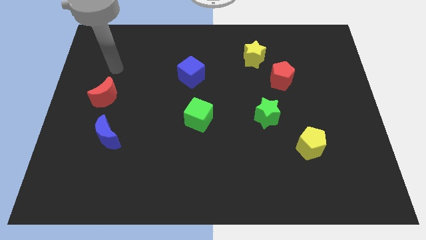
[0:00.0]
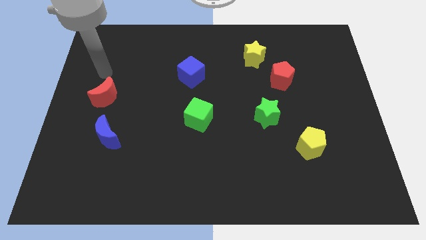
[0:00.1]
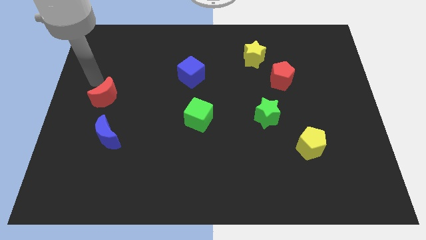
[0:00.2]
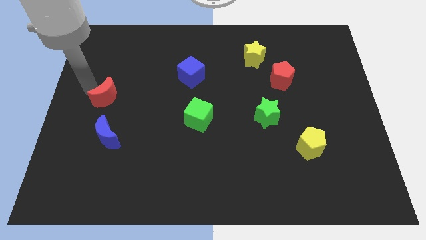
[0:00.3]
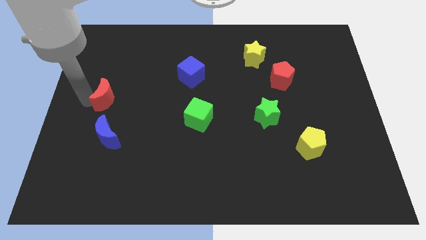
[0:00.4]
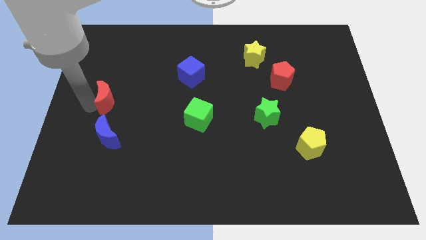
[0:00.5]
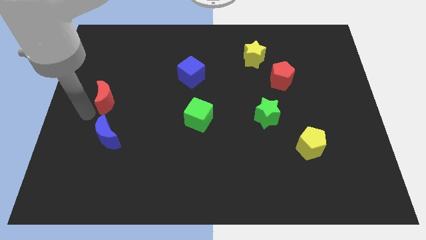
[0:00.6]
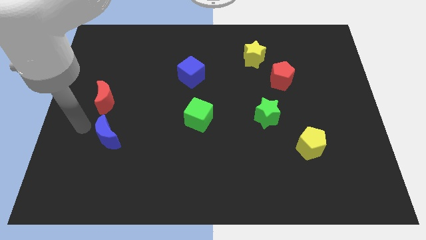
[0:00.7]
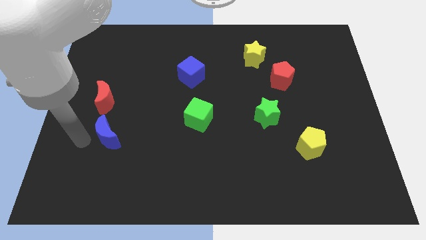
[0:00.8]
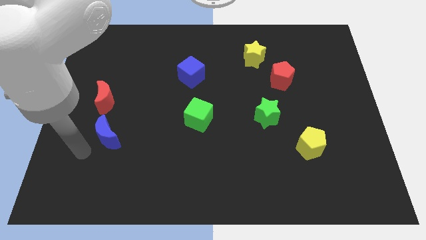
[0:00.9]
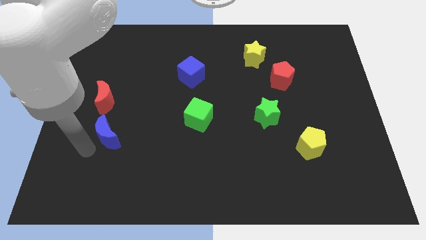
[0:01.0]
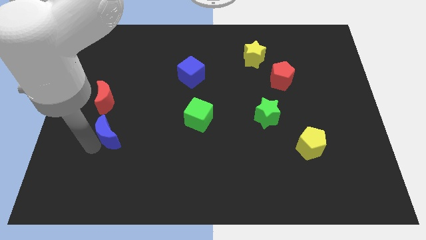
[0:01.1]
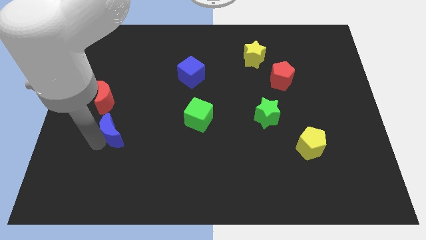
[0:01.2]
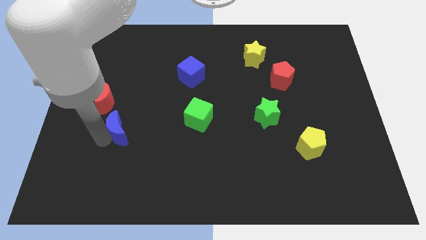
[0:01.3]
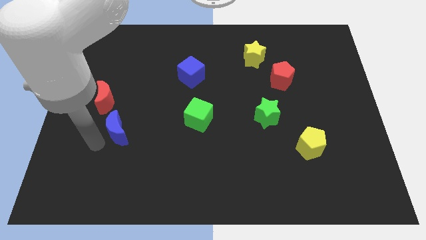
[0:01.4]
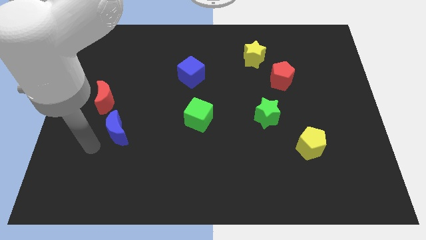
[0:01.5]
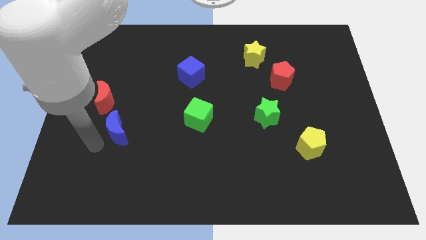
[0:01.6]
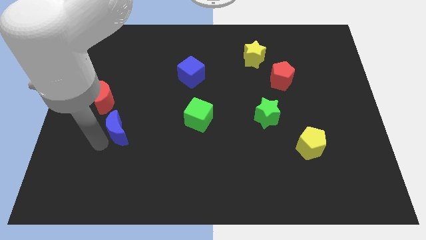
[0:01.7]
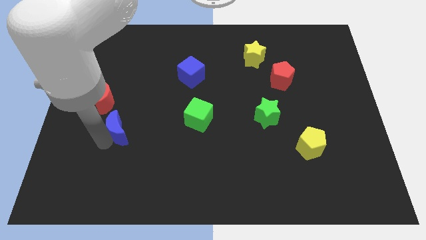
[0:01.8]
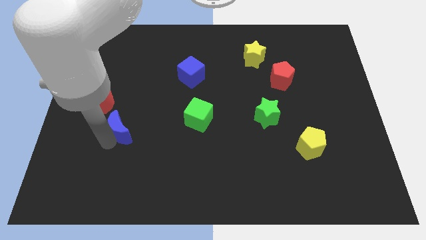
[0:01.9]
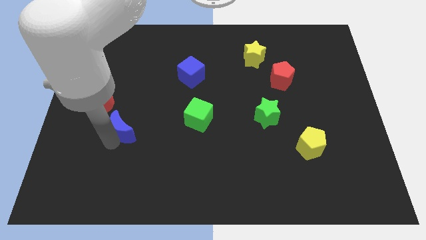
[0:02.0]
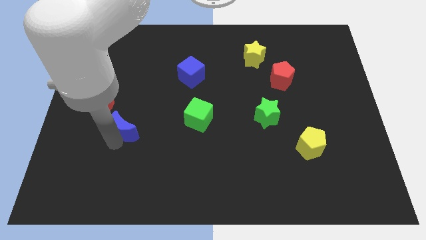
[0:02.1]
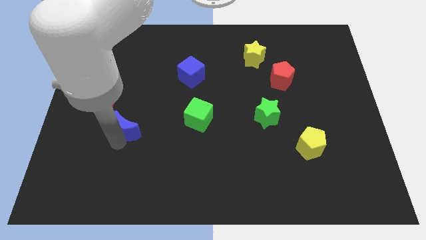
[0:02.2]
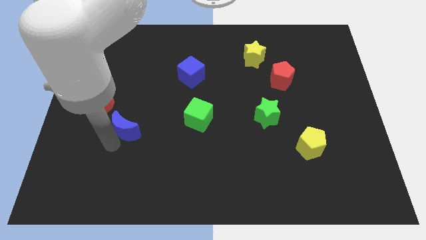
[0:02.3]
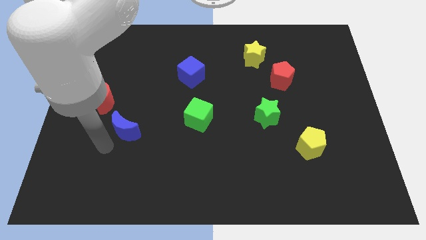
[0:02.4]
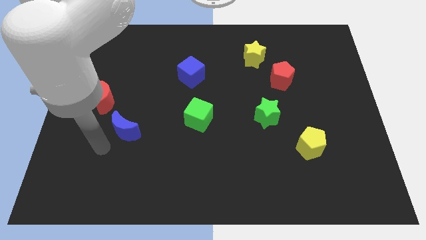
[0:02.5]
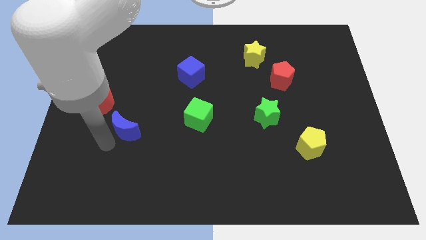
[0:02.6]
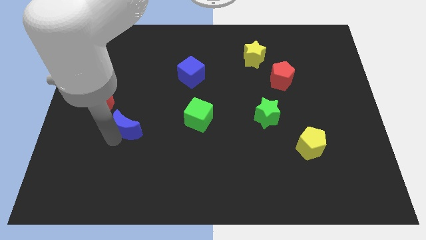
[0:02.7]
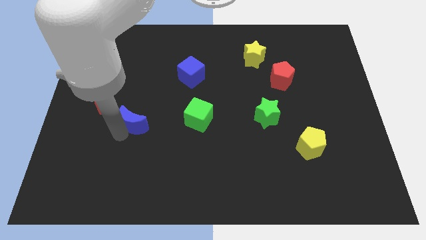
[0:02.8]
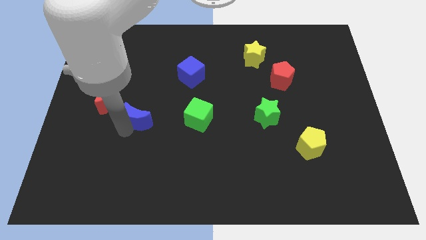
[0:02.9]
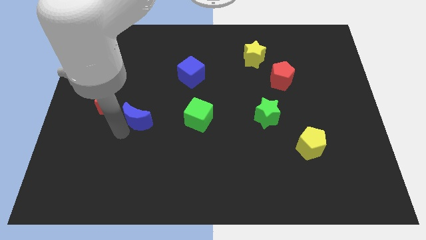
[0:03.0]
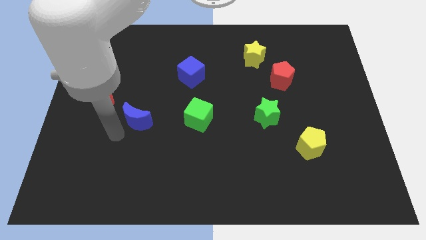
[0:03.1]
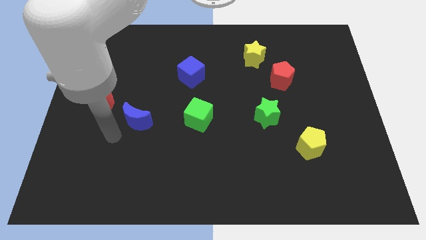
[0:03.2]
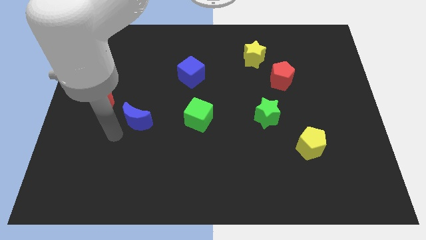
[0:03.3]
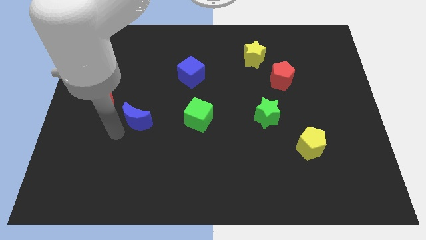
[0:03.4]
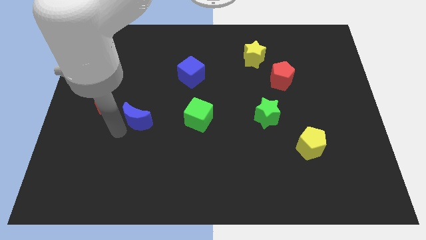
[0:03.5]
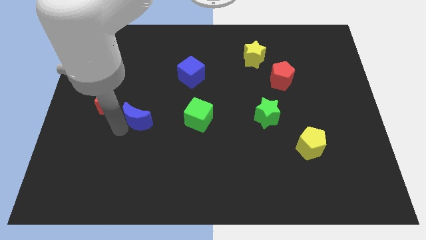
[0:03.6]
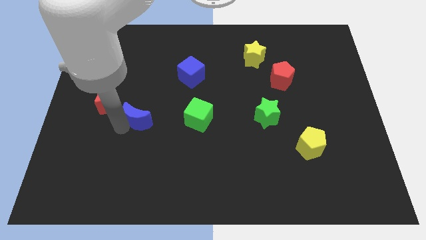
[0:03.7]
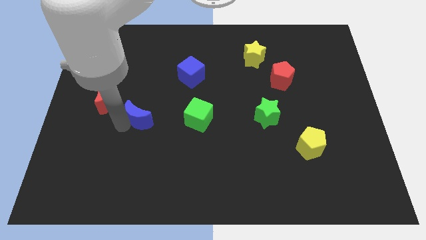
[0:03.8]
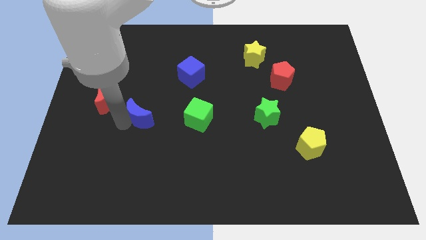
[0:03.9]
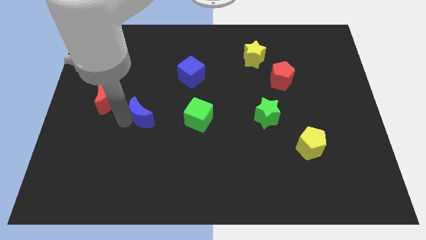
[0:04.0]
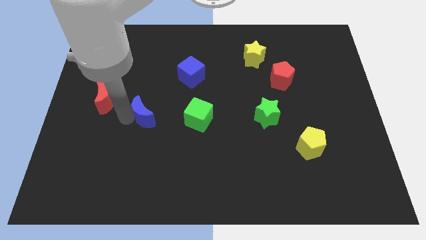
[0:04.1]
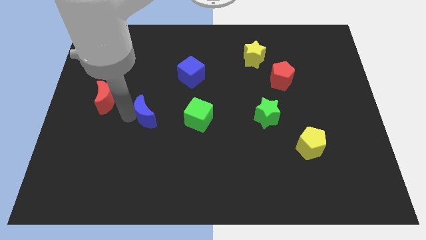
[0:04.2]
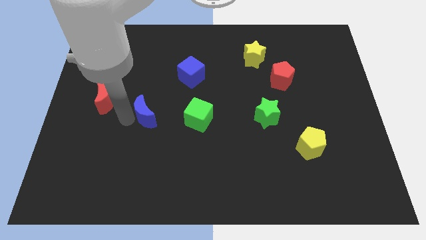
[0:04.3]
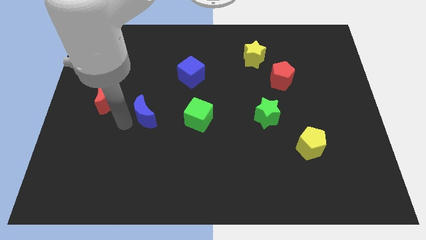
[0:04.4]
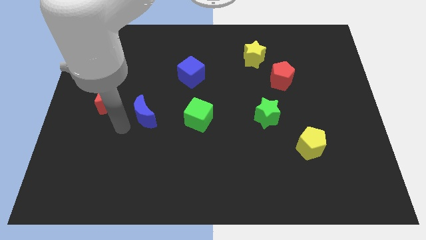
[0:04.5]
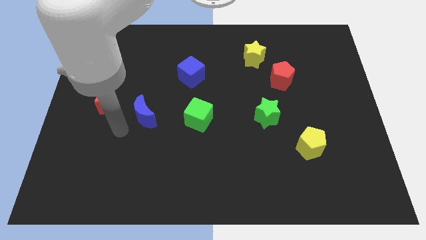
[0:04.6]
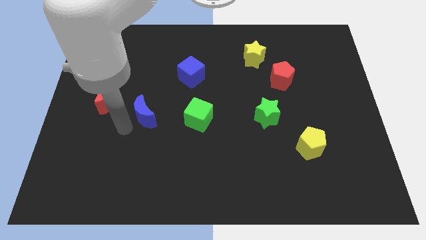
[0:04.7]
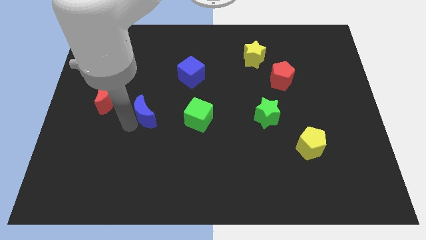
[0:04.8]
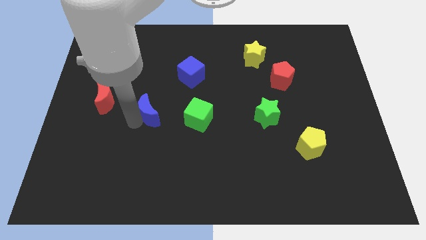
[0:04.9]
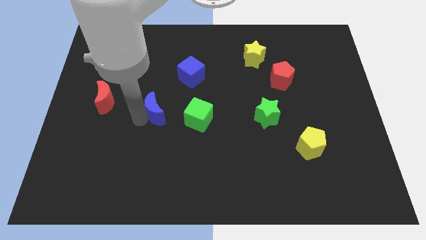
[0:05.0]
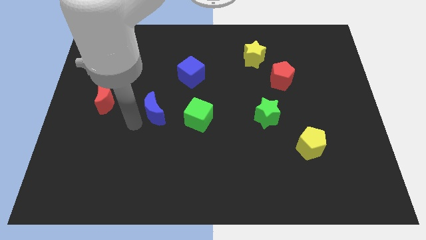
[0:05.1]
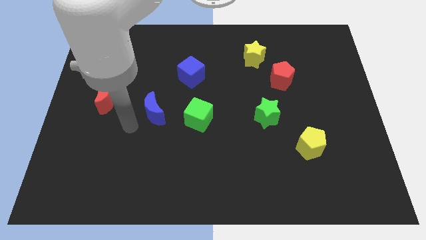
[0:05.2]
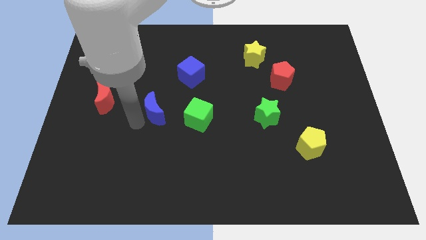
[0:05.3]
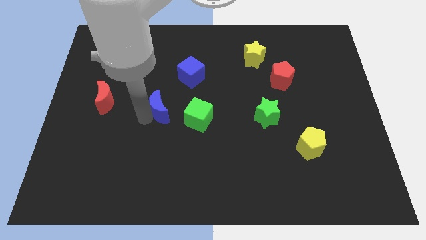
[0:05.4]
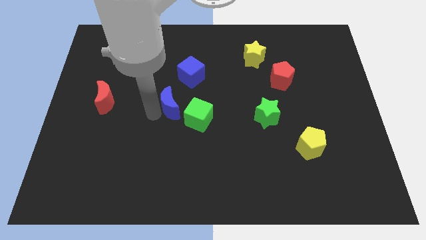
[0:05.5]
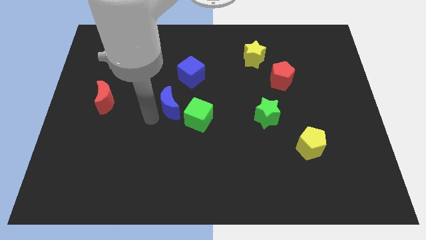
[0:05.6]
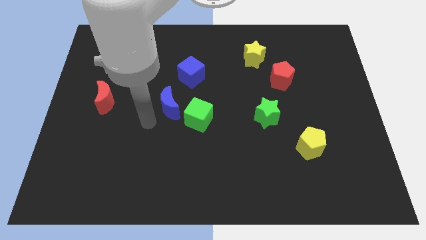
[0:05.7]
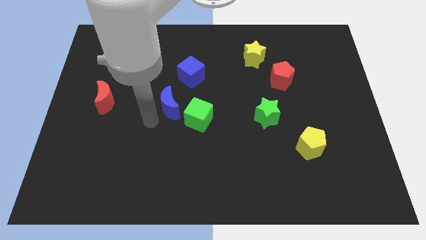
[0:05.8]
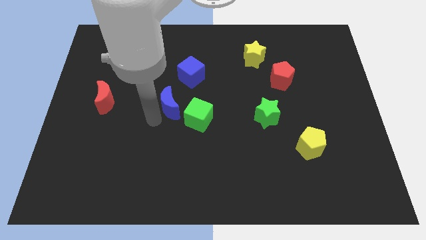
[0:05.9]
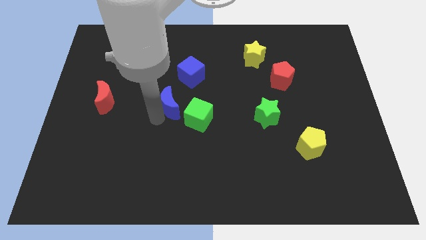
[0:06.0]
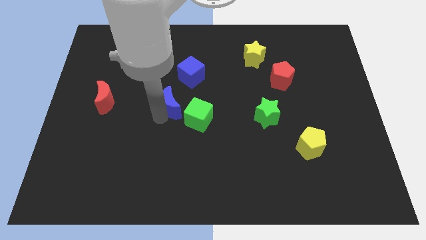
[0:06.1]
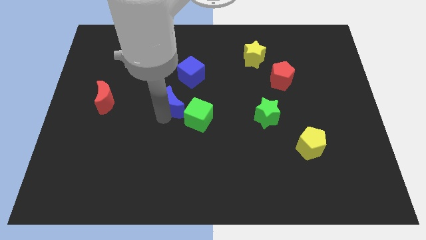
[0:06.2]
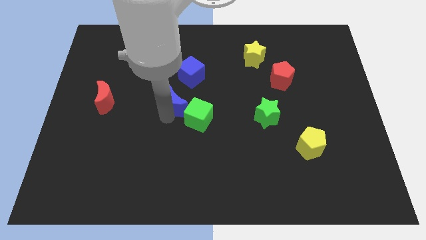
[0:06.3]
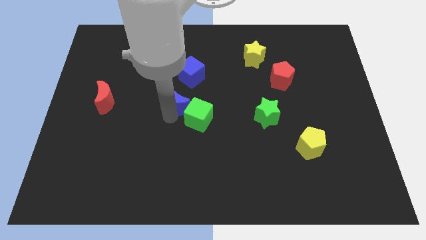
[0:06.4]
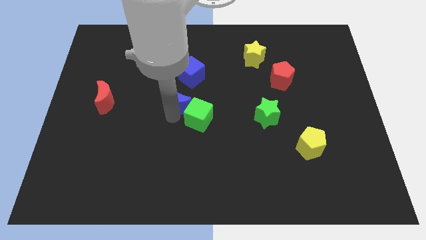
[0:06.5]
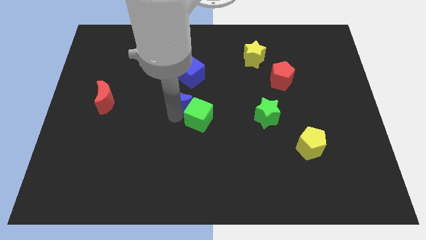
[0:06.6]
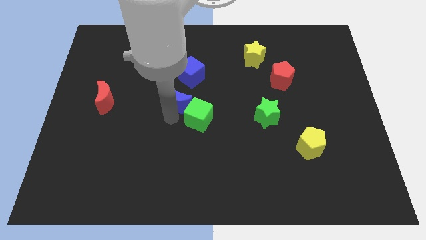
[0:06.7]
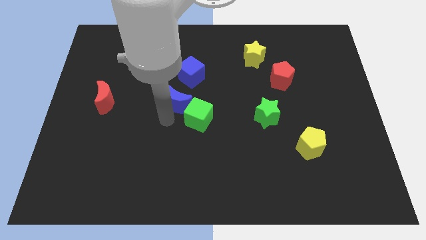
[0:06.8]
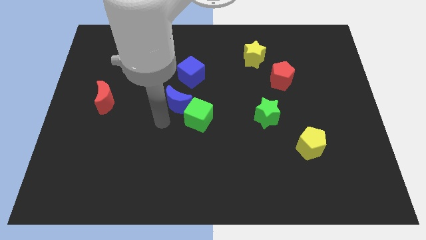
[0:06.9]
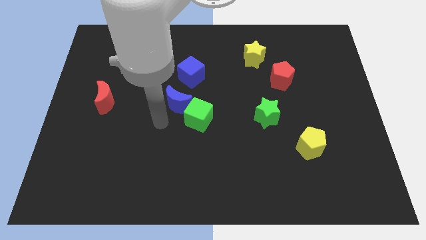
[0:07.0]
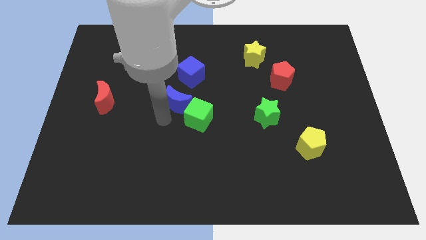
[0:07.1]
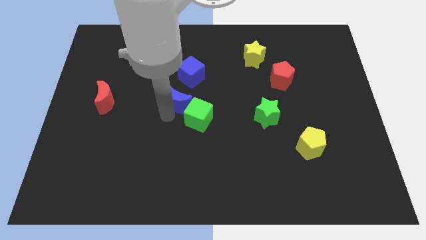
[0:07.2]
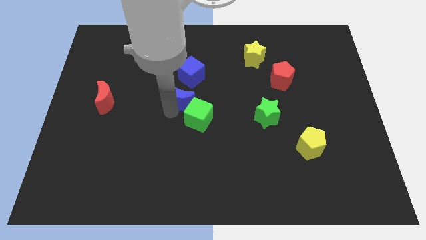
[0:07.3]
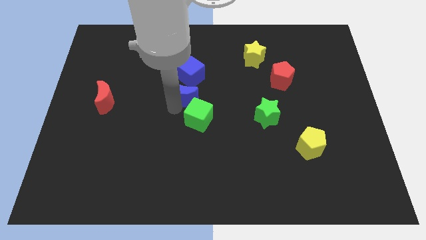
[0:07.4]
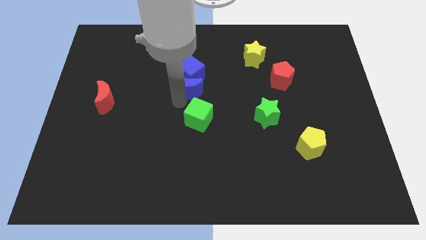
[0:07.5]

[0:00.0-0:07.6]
slide the blue moon diagonally up and right

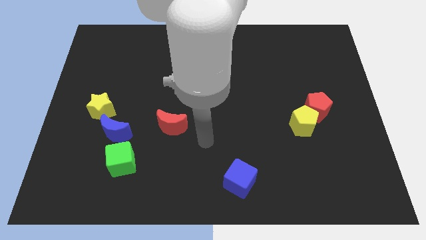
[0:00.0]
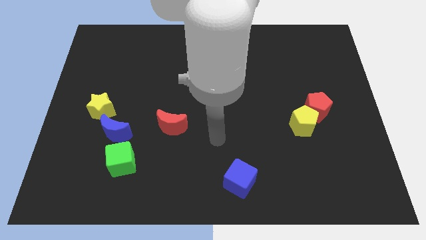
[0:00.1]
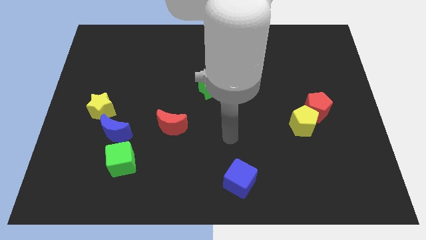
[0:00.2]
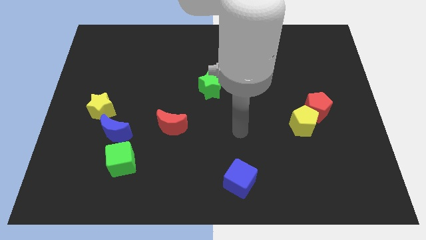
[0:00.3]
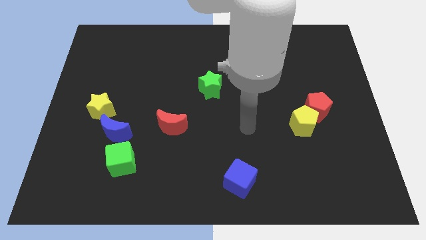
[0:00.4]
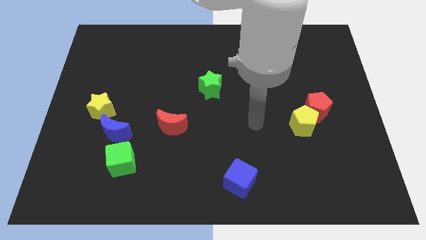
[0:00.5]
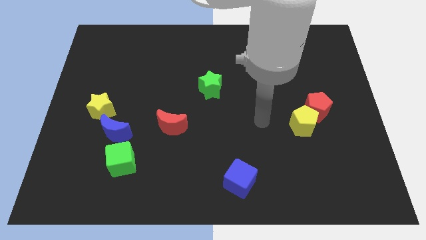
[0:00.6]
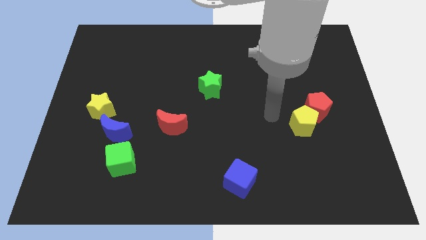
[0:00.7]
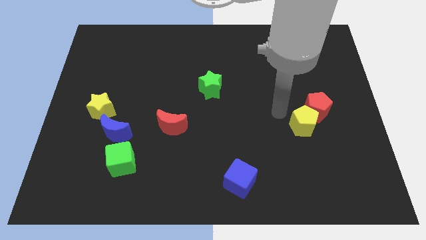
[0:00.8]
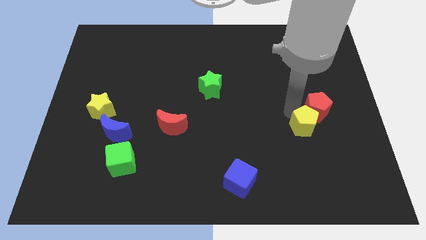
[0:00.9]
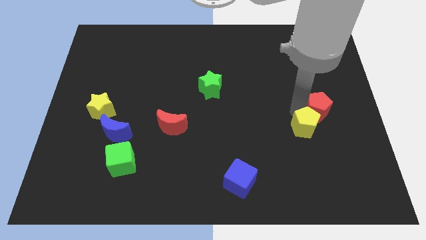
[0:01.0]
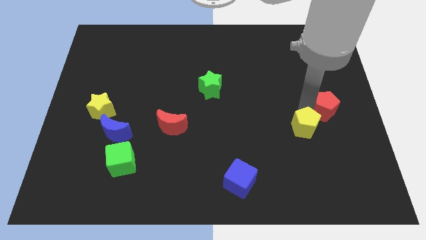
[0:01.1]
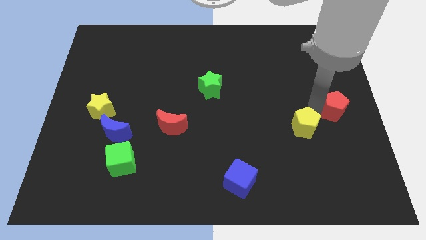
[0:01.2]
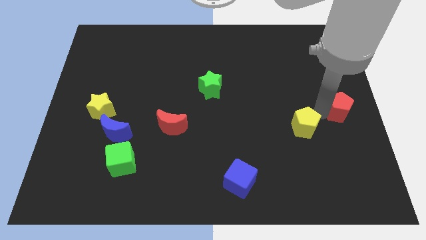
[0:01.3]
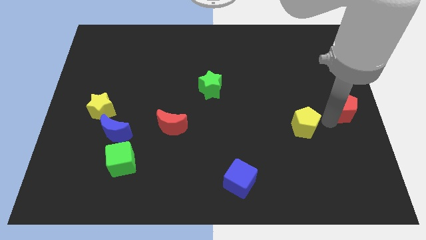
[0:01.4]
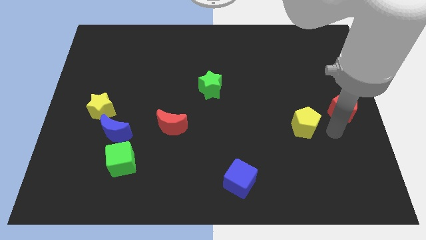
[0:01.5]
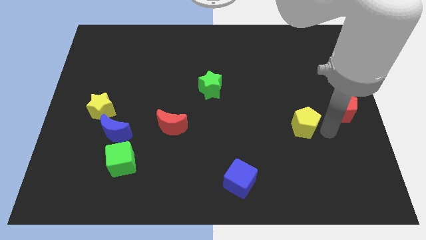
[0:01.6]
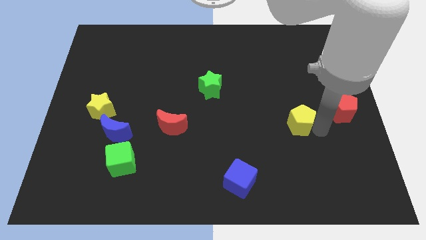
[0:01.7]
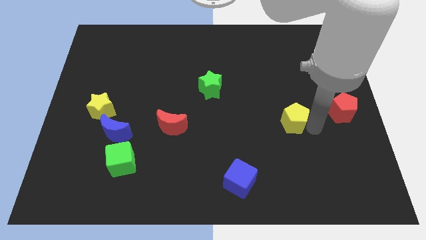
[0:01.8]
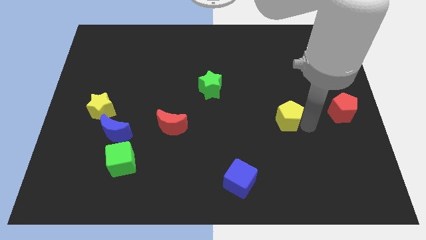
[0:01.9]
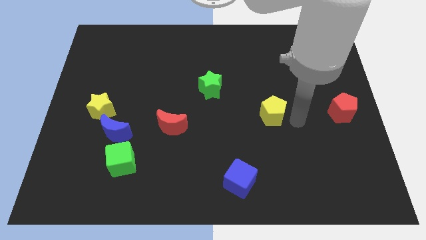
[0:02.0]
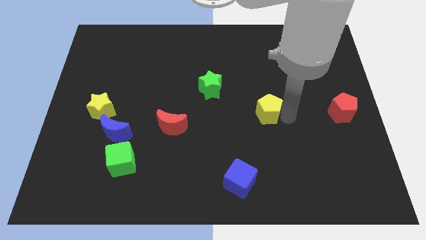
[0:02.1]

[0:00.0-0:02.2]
move the yellow pentagon somewhat left
